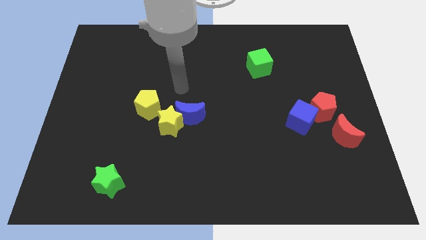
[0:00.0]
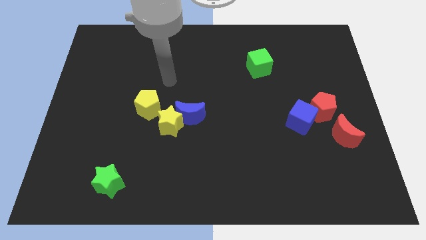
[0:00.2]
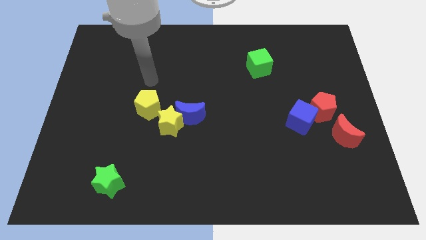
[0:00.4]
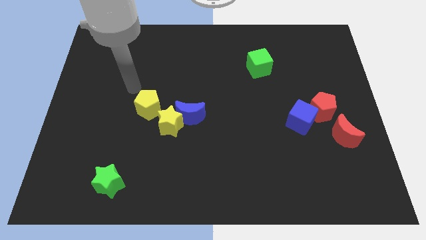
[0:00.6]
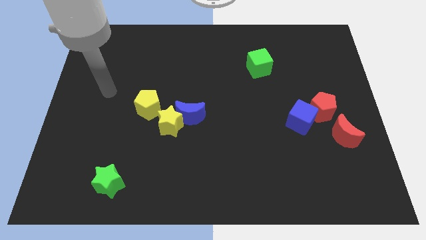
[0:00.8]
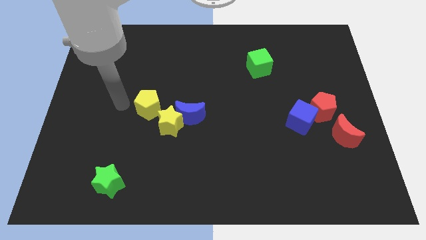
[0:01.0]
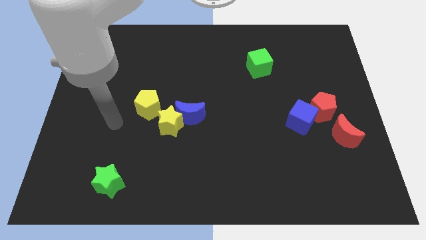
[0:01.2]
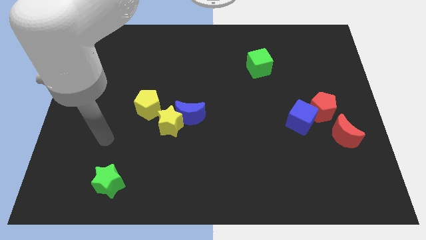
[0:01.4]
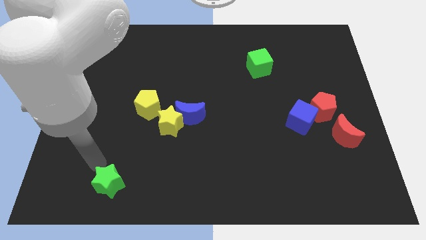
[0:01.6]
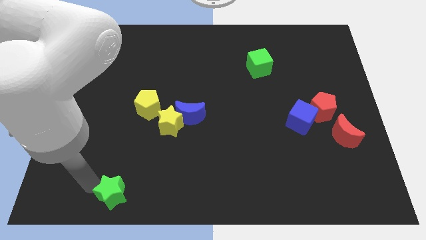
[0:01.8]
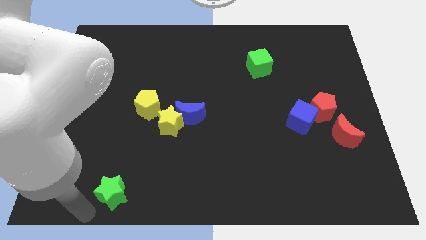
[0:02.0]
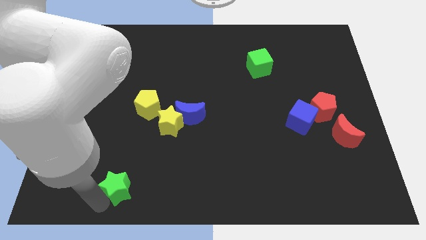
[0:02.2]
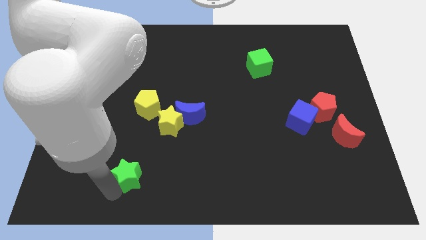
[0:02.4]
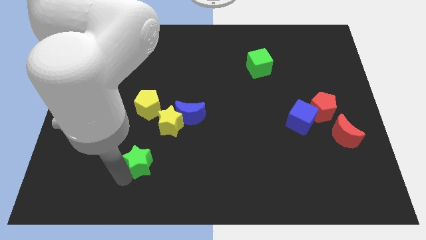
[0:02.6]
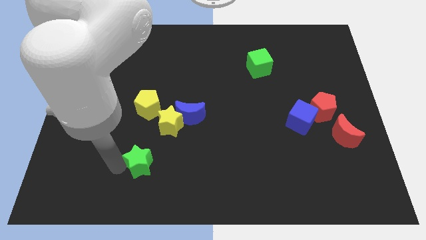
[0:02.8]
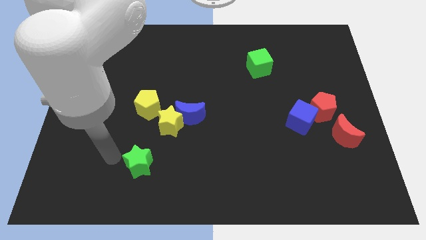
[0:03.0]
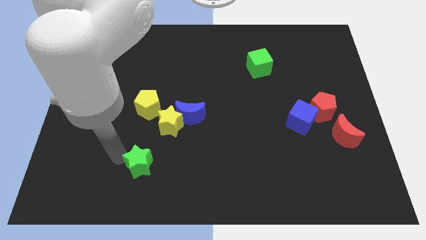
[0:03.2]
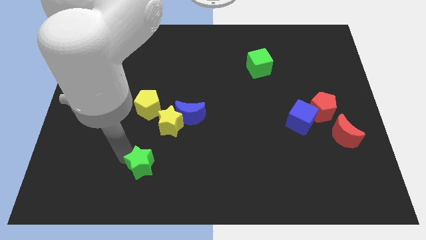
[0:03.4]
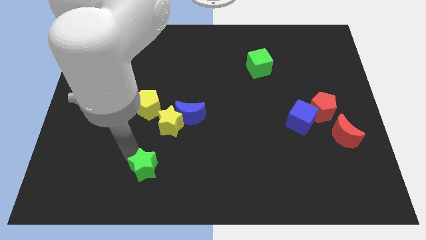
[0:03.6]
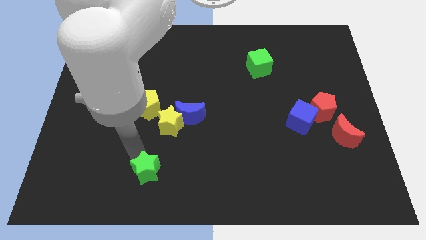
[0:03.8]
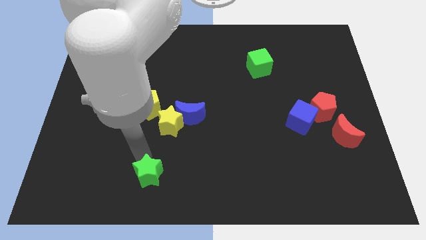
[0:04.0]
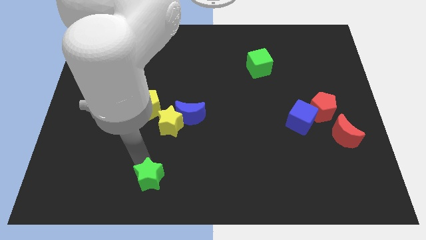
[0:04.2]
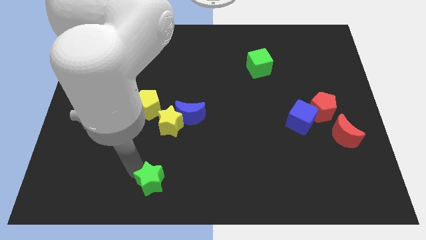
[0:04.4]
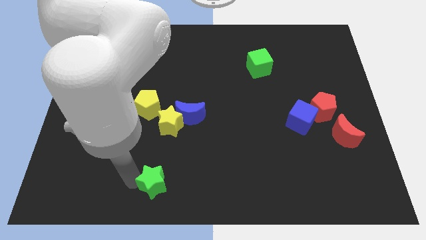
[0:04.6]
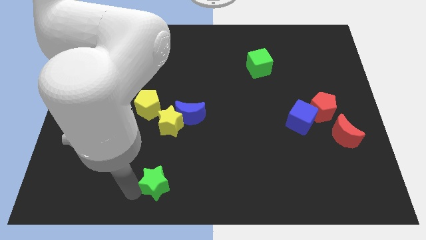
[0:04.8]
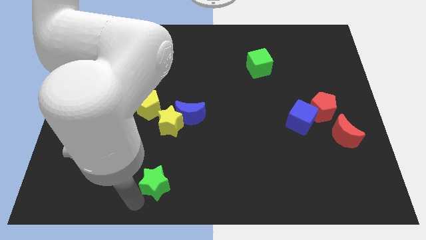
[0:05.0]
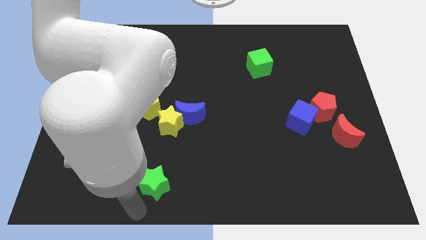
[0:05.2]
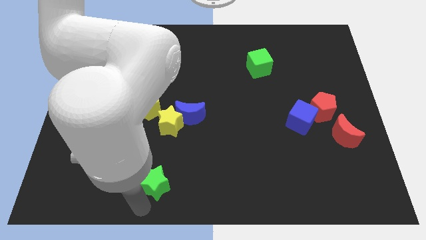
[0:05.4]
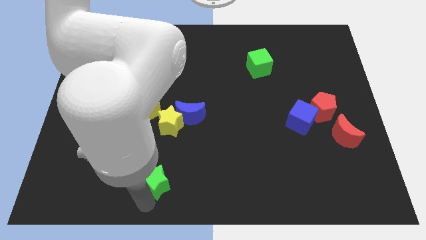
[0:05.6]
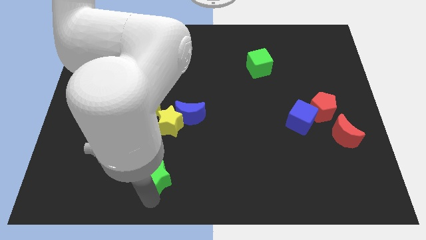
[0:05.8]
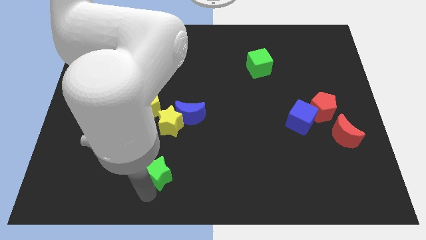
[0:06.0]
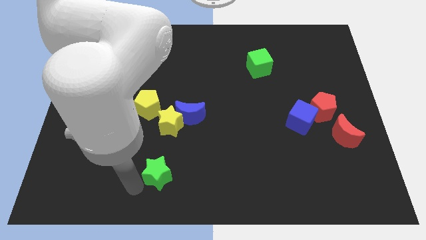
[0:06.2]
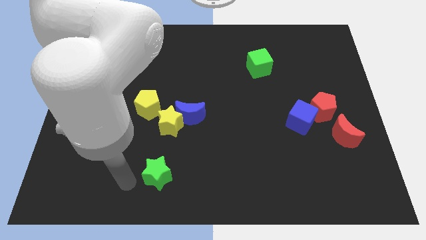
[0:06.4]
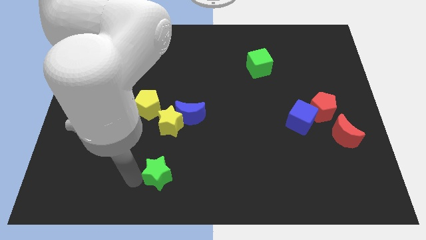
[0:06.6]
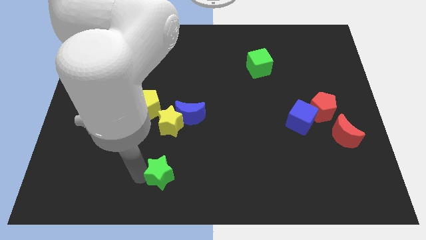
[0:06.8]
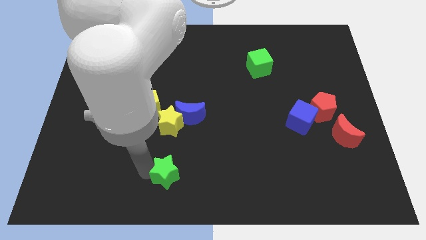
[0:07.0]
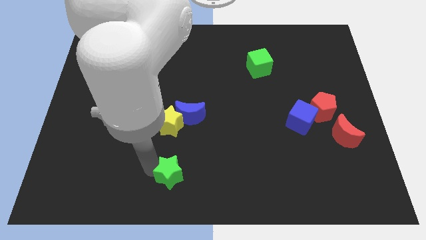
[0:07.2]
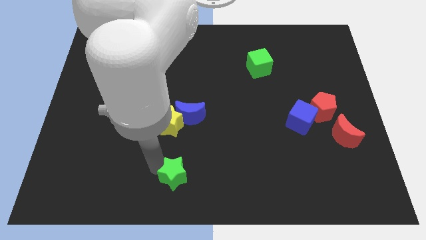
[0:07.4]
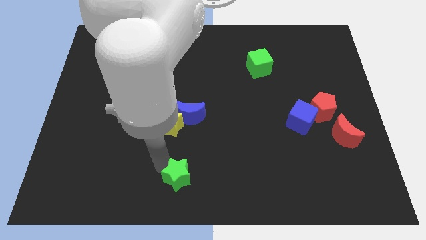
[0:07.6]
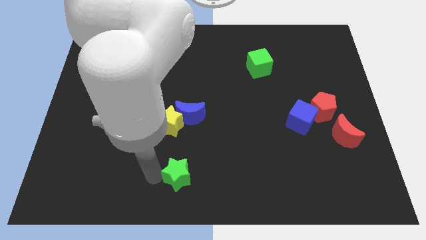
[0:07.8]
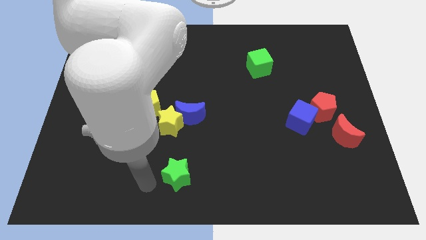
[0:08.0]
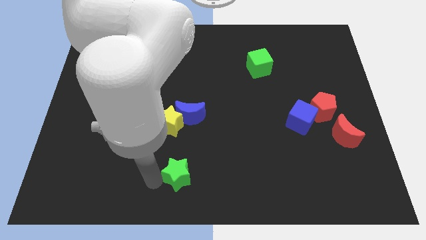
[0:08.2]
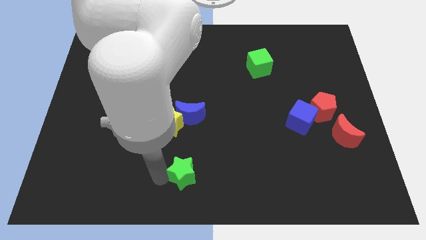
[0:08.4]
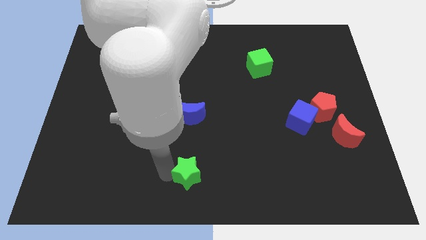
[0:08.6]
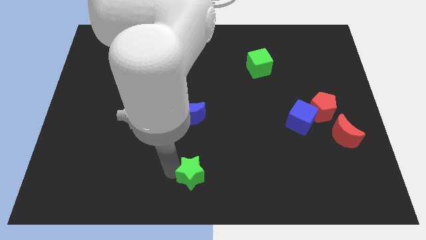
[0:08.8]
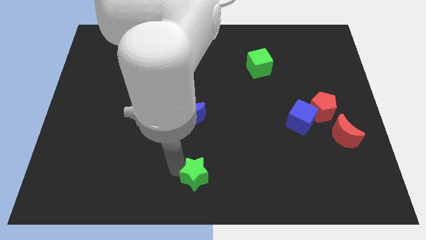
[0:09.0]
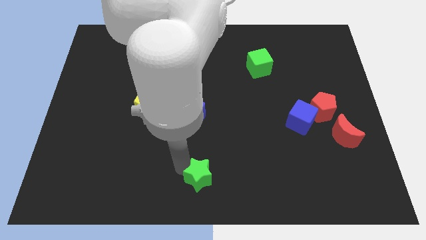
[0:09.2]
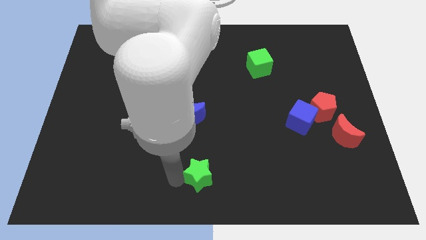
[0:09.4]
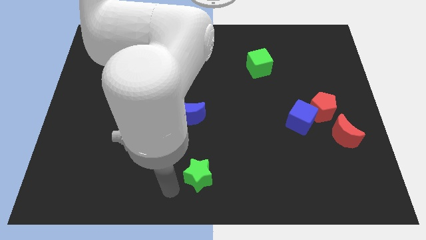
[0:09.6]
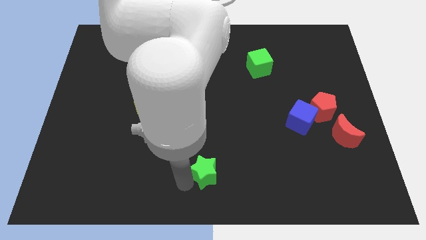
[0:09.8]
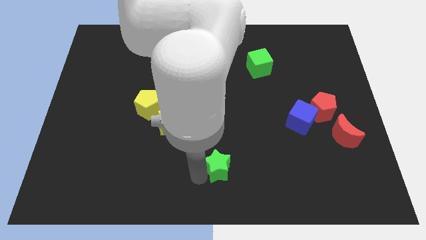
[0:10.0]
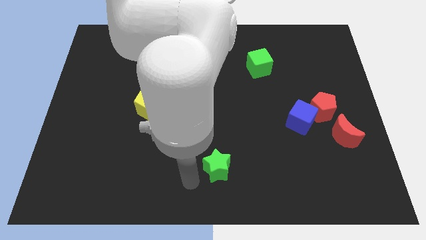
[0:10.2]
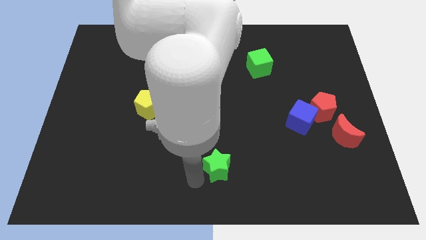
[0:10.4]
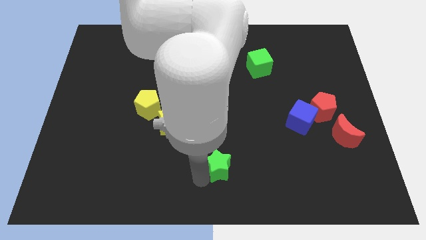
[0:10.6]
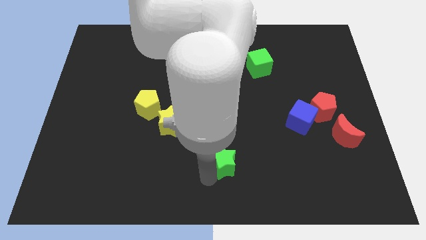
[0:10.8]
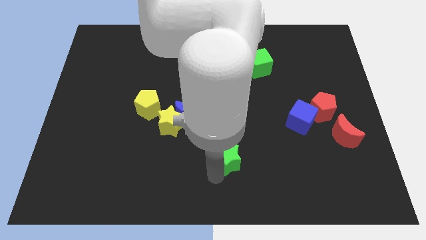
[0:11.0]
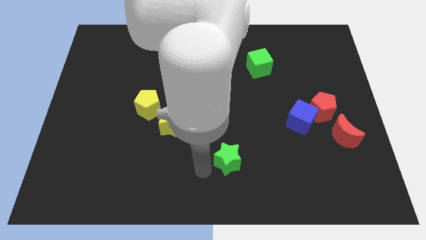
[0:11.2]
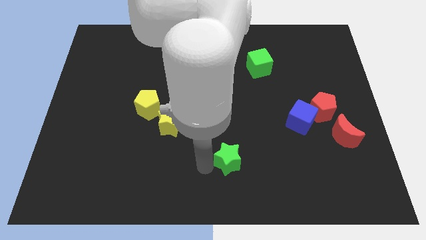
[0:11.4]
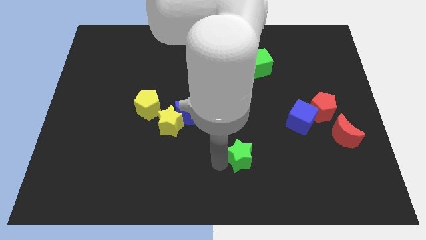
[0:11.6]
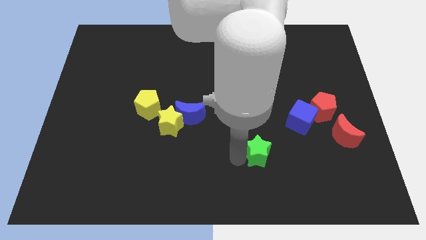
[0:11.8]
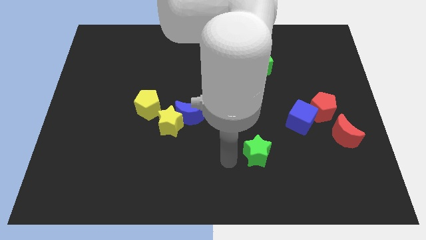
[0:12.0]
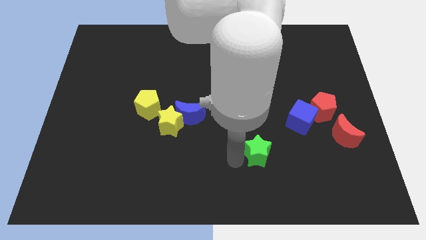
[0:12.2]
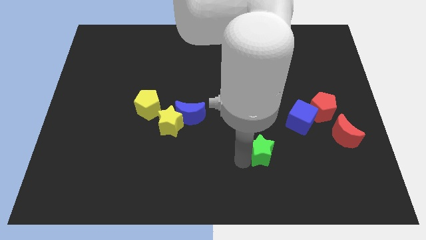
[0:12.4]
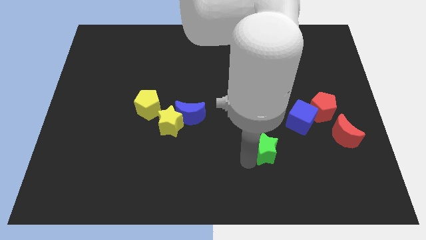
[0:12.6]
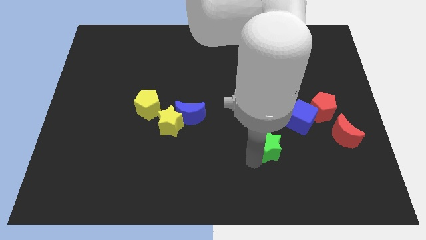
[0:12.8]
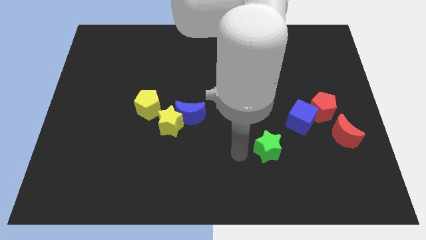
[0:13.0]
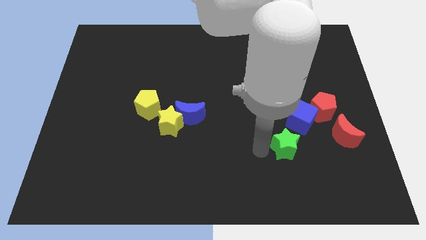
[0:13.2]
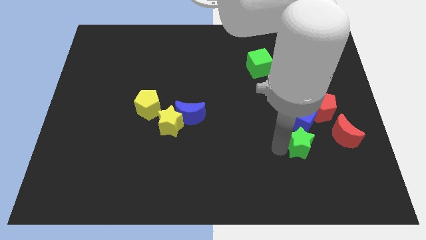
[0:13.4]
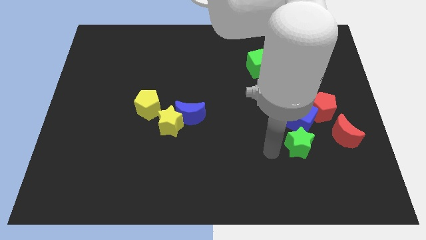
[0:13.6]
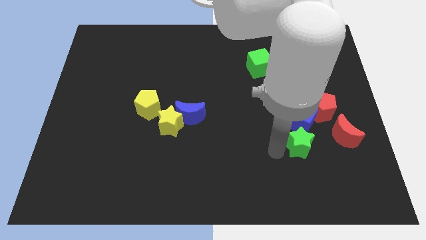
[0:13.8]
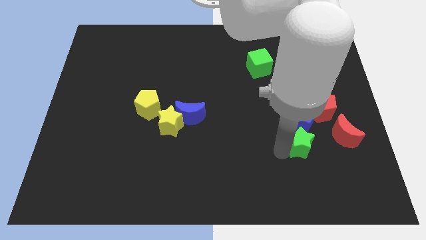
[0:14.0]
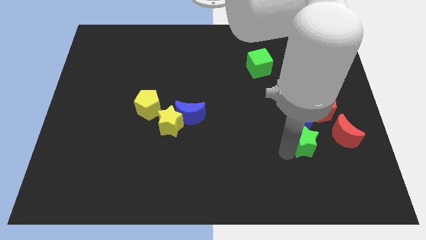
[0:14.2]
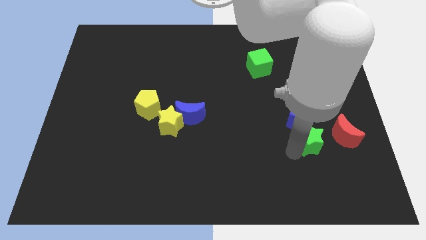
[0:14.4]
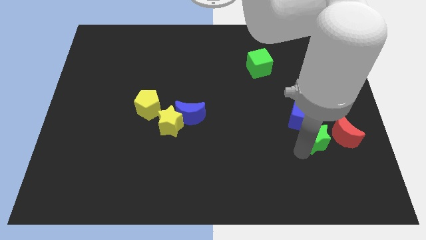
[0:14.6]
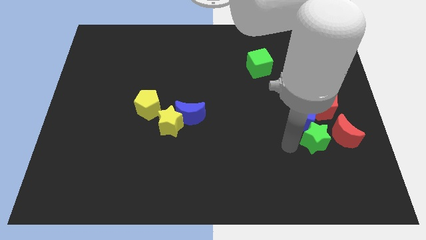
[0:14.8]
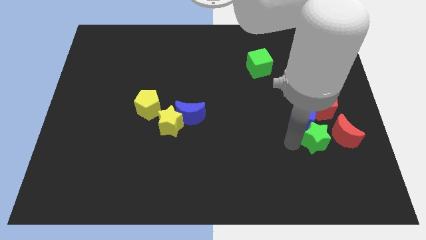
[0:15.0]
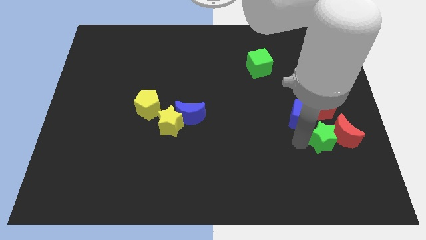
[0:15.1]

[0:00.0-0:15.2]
put the green star towards the red moon

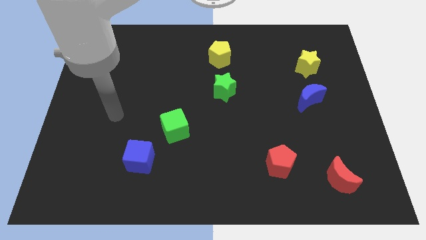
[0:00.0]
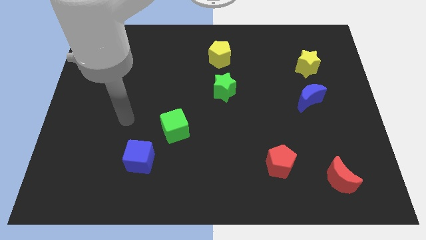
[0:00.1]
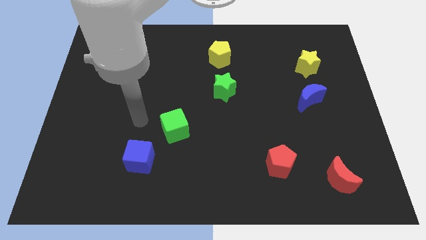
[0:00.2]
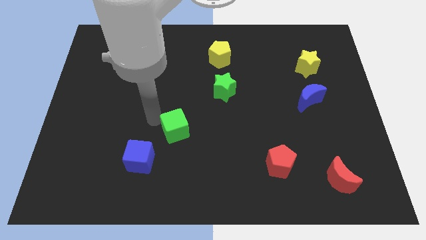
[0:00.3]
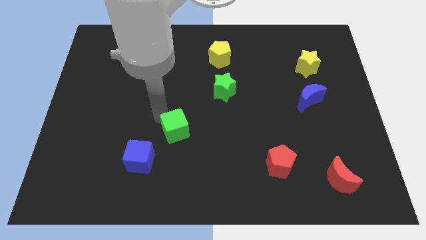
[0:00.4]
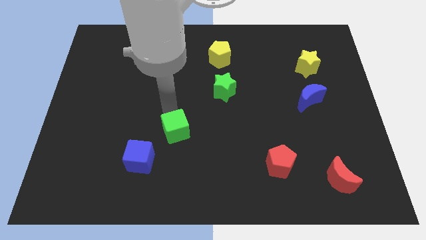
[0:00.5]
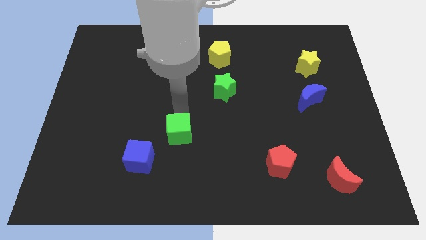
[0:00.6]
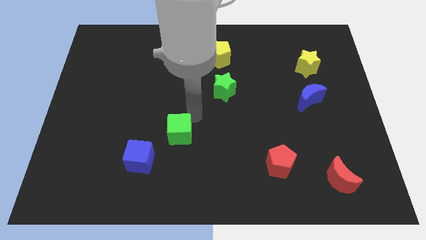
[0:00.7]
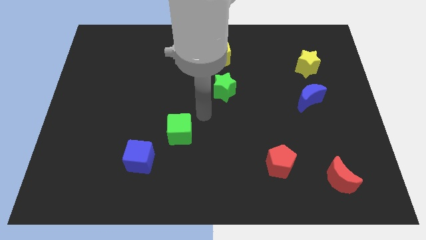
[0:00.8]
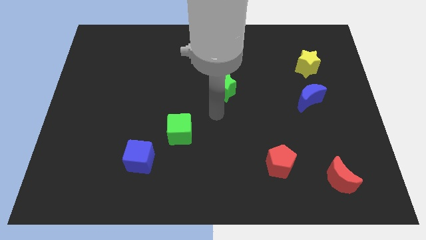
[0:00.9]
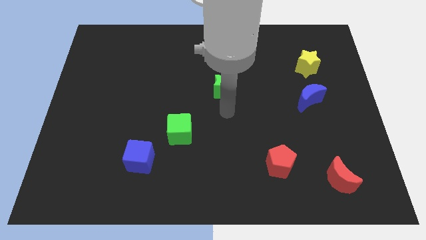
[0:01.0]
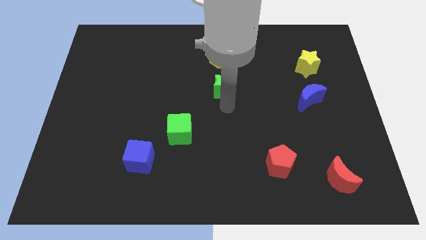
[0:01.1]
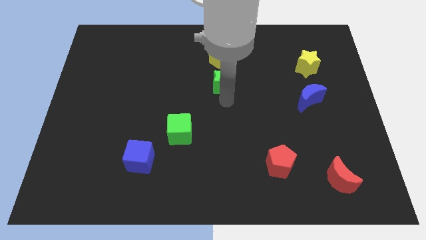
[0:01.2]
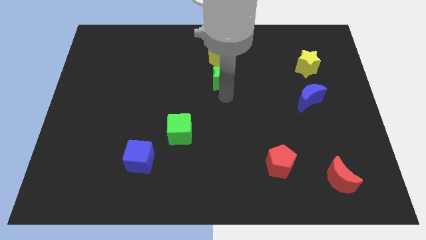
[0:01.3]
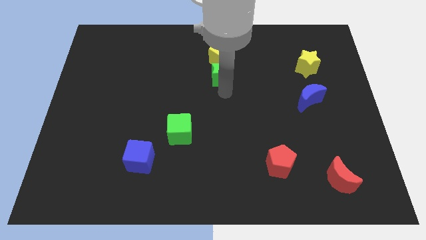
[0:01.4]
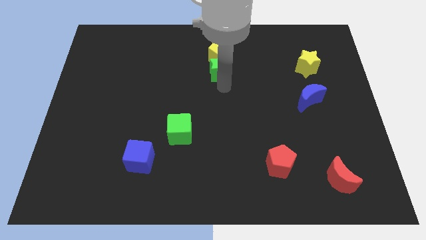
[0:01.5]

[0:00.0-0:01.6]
put the green star close to the yellow pentagon
